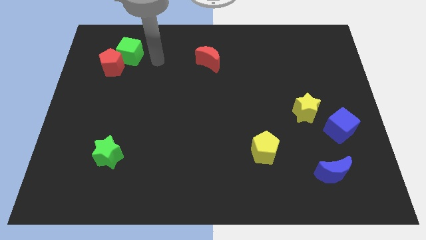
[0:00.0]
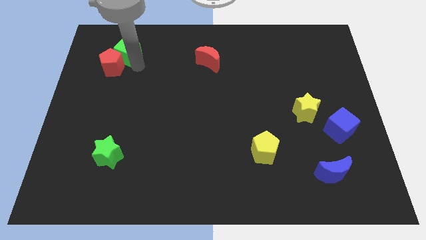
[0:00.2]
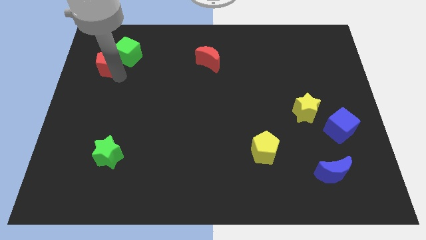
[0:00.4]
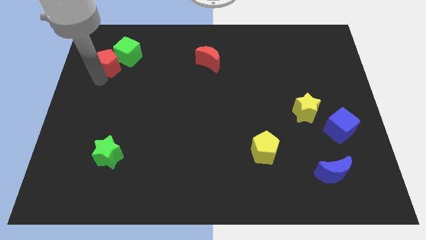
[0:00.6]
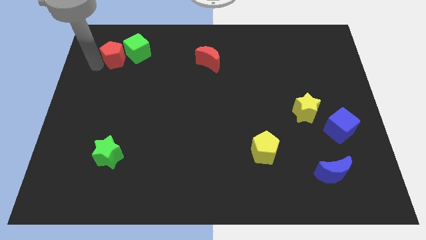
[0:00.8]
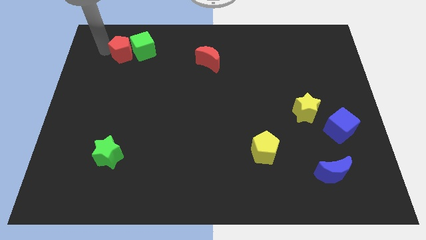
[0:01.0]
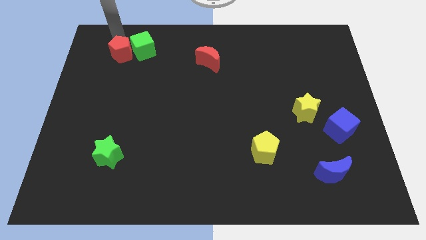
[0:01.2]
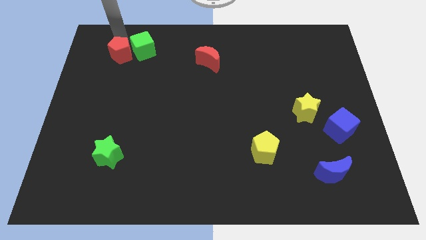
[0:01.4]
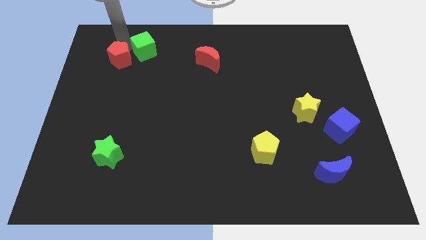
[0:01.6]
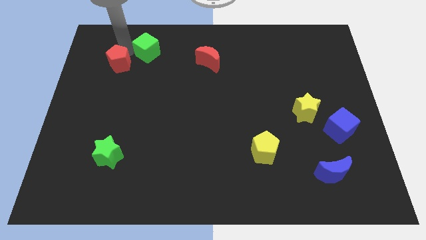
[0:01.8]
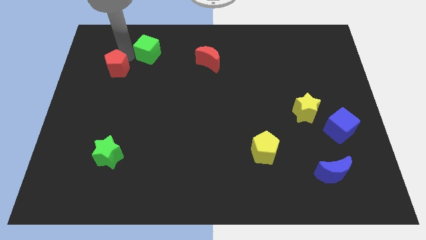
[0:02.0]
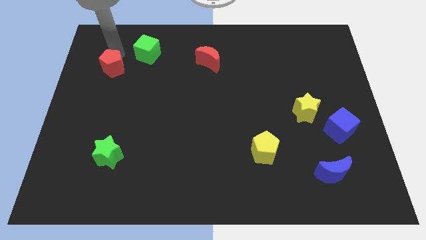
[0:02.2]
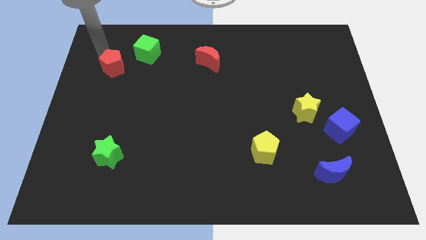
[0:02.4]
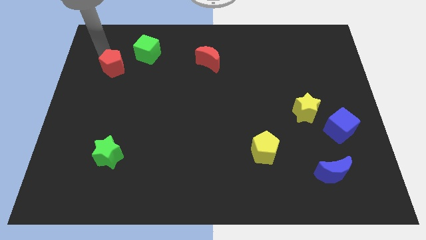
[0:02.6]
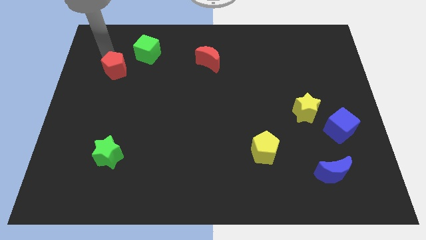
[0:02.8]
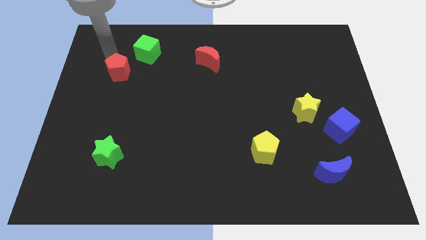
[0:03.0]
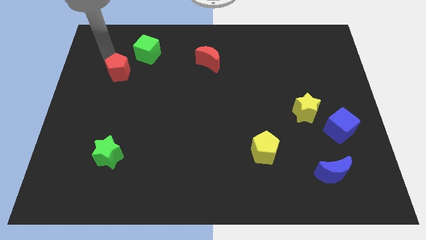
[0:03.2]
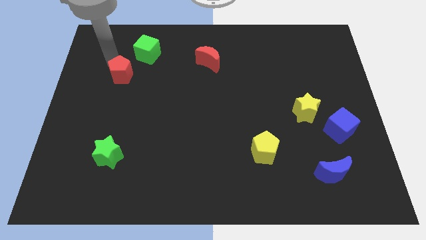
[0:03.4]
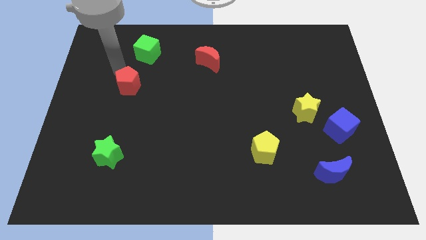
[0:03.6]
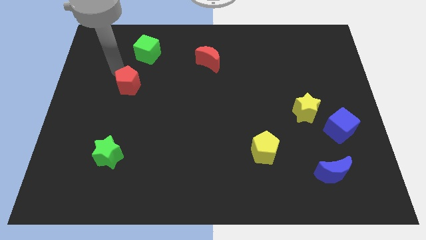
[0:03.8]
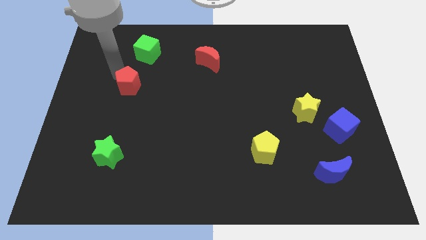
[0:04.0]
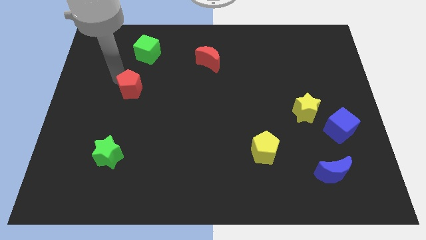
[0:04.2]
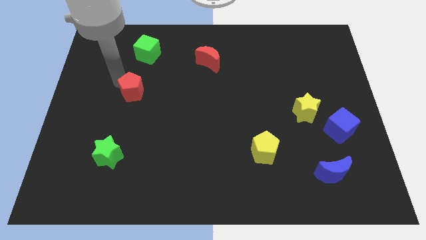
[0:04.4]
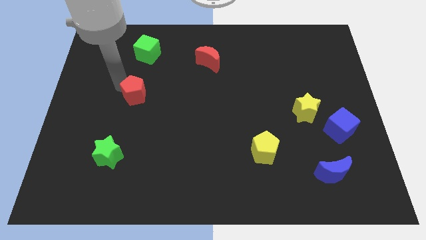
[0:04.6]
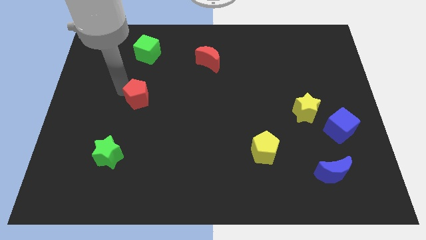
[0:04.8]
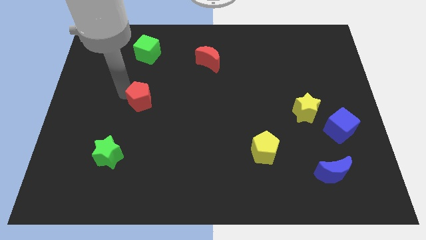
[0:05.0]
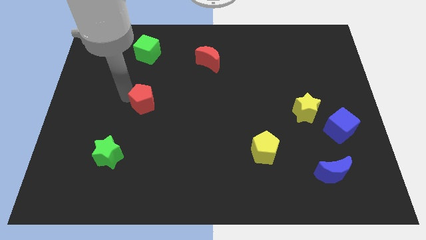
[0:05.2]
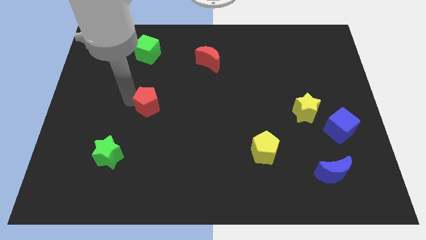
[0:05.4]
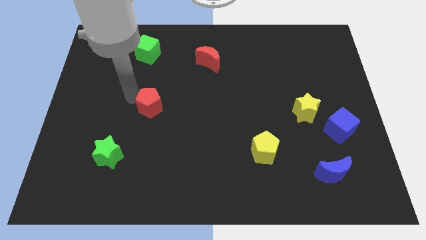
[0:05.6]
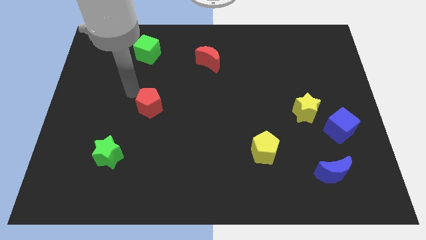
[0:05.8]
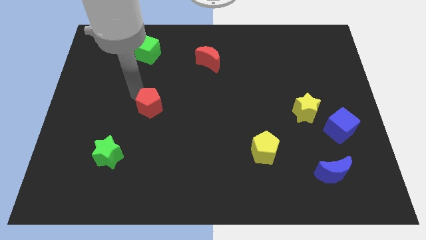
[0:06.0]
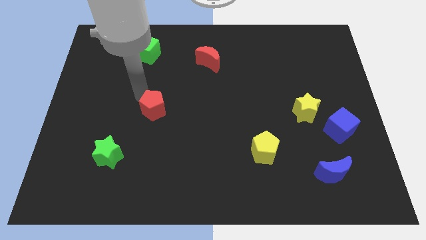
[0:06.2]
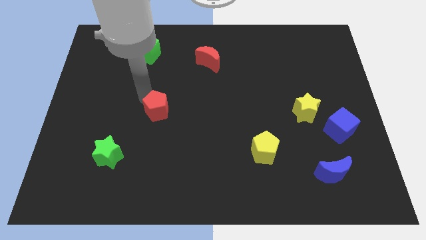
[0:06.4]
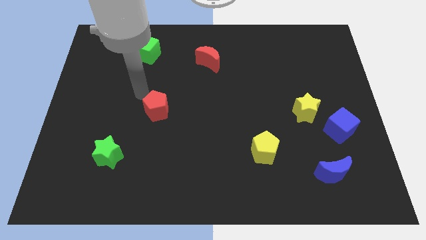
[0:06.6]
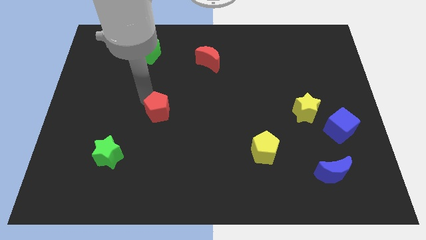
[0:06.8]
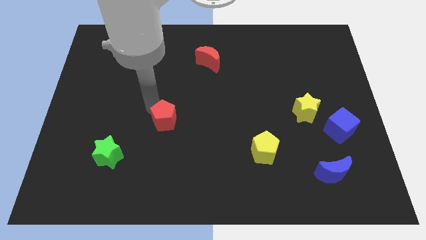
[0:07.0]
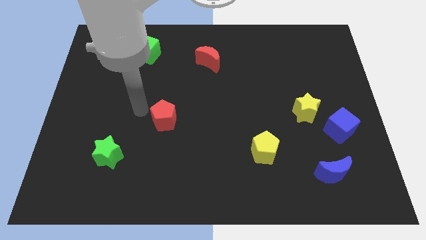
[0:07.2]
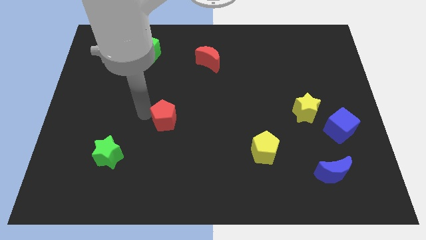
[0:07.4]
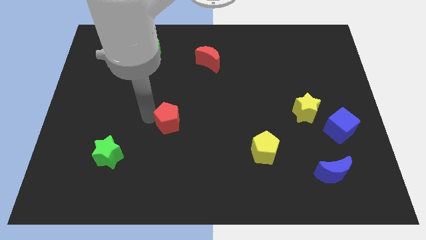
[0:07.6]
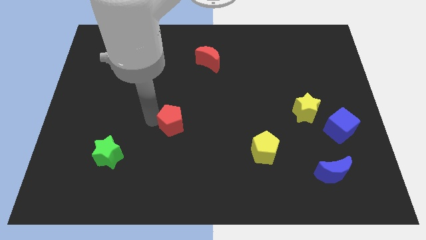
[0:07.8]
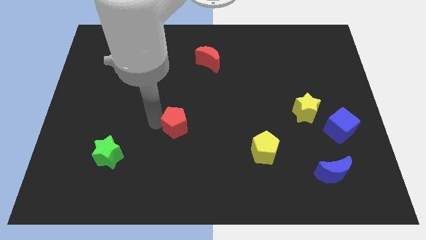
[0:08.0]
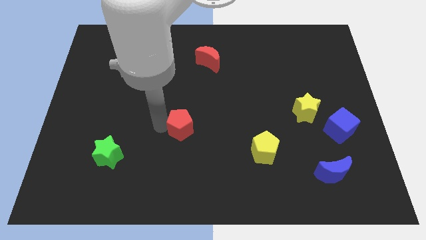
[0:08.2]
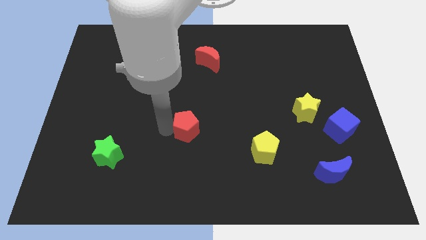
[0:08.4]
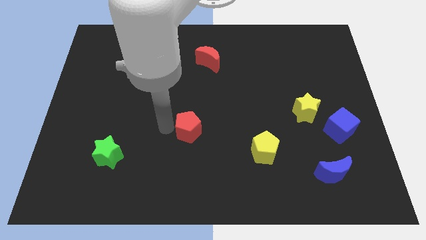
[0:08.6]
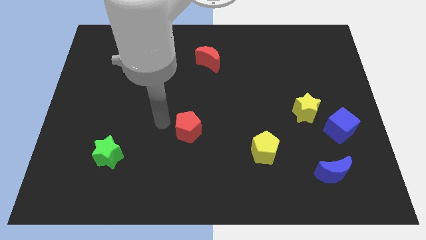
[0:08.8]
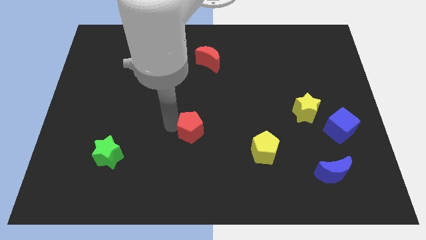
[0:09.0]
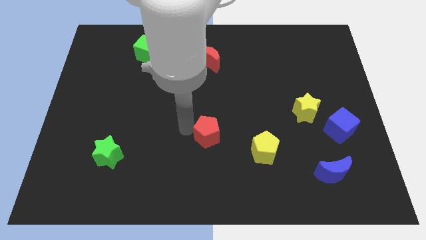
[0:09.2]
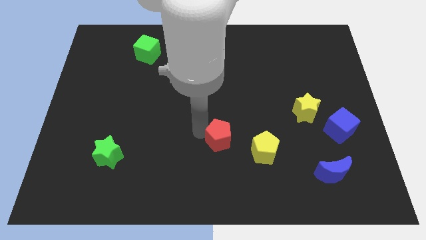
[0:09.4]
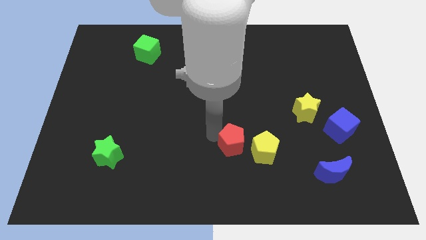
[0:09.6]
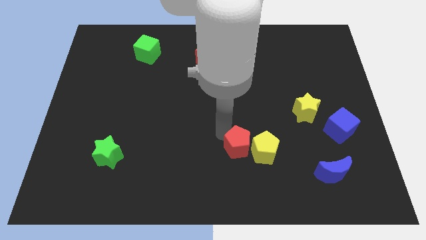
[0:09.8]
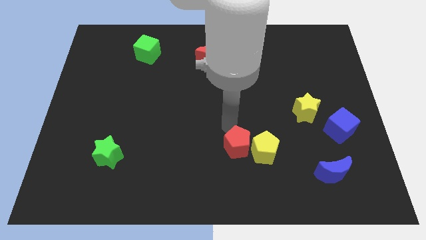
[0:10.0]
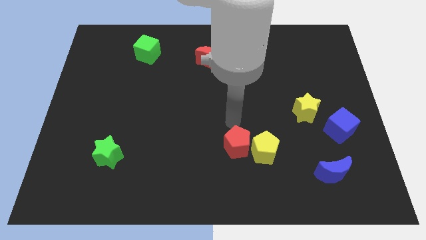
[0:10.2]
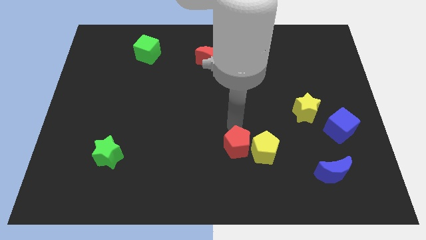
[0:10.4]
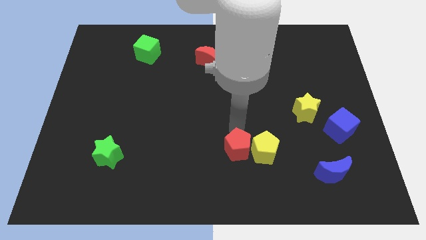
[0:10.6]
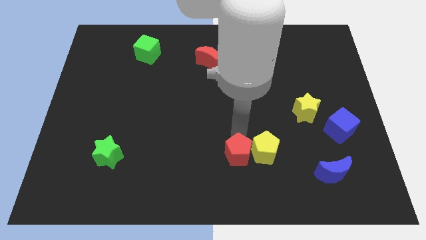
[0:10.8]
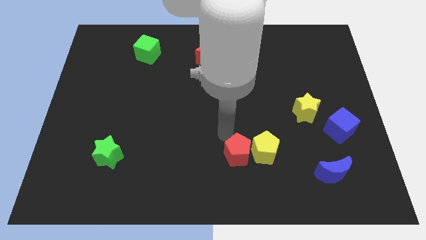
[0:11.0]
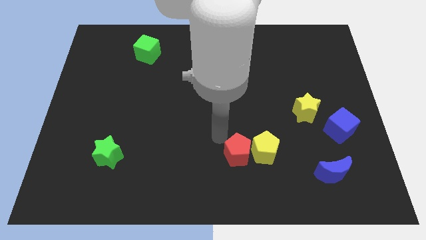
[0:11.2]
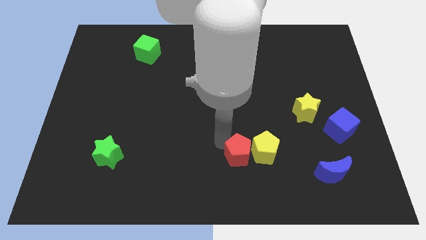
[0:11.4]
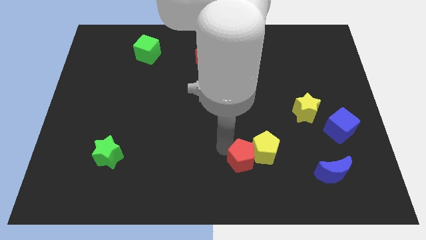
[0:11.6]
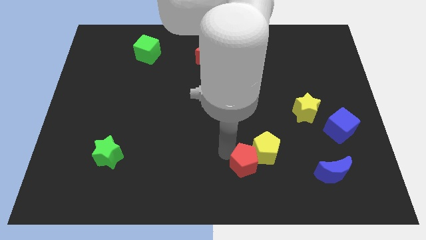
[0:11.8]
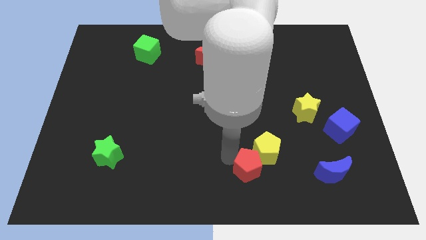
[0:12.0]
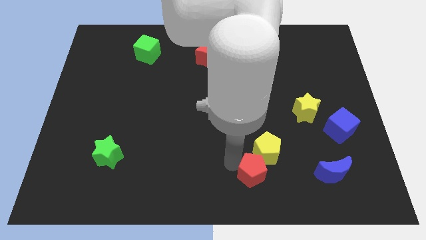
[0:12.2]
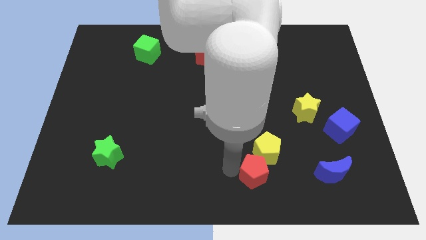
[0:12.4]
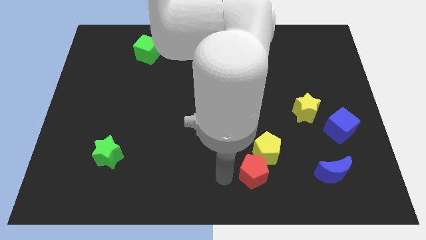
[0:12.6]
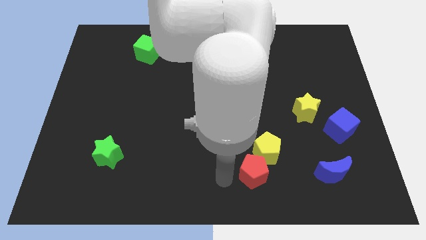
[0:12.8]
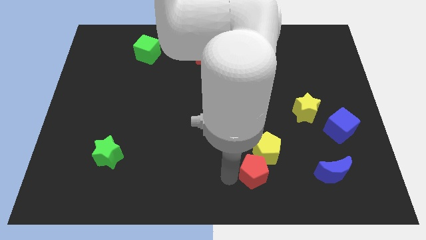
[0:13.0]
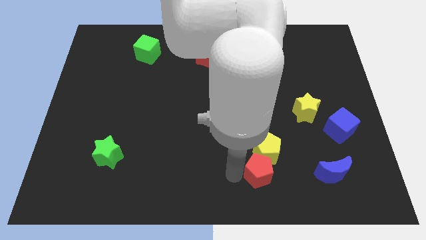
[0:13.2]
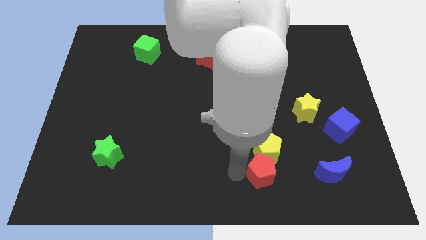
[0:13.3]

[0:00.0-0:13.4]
push the red pentagon to the bottom right of the yellow pentagon
